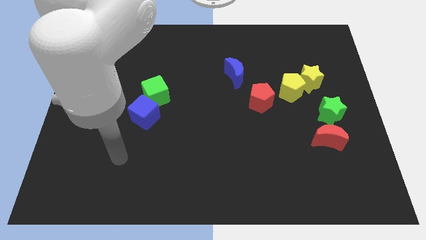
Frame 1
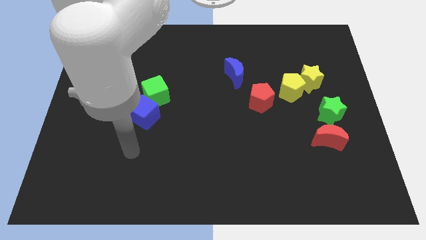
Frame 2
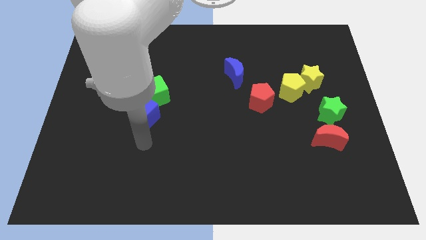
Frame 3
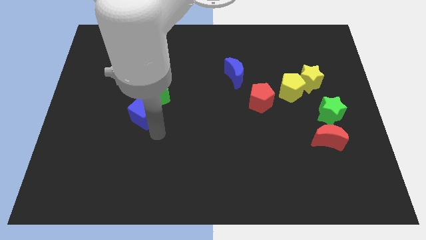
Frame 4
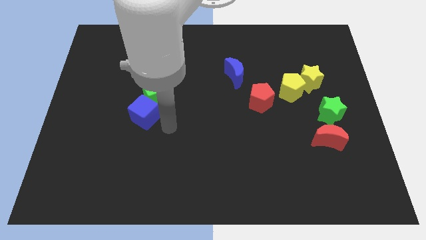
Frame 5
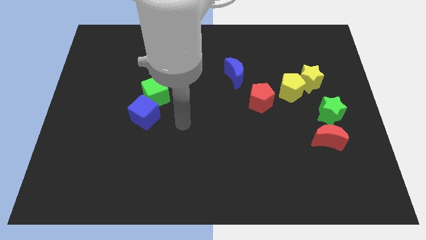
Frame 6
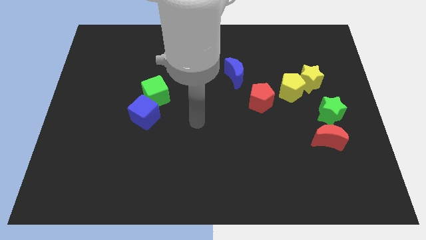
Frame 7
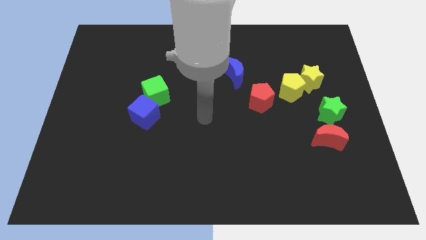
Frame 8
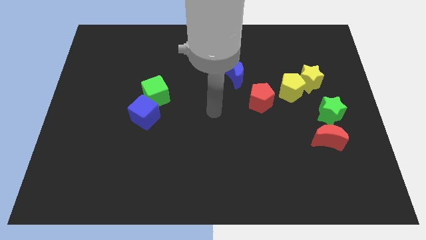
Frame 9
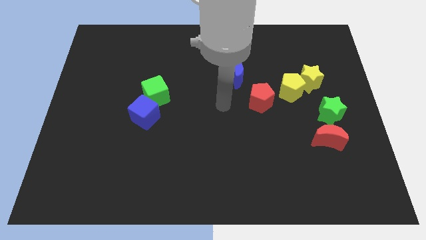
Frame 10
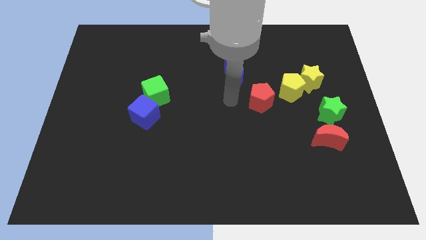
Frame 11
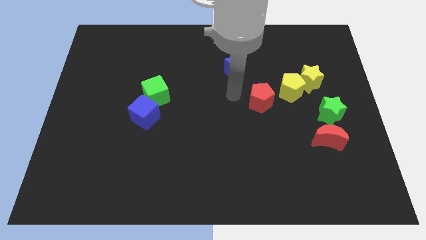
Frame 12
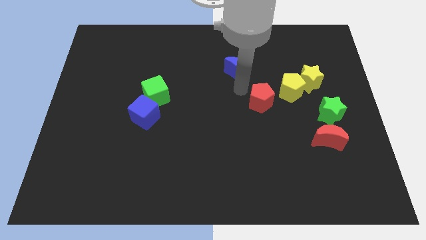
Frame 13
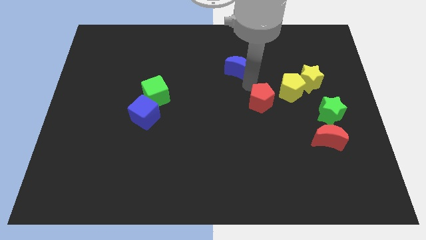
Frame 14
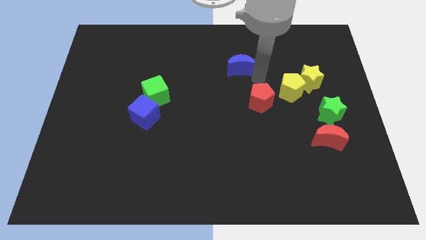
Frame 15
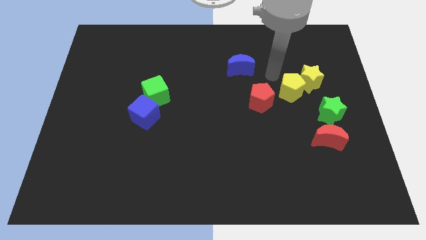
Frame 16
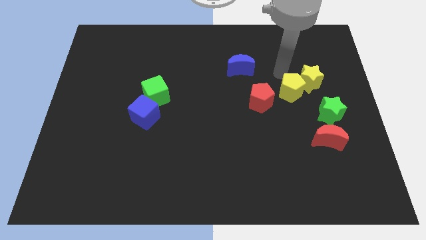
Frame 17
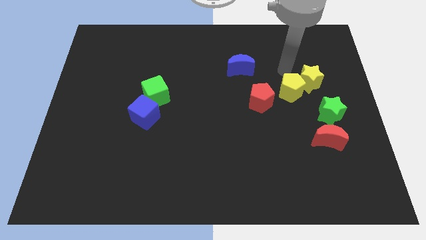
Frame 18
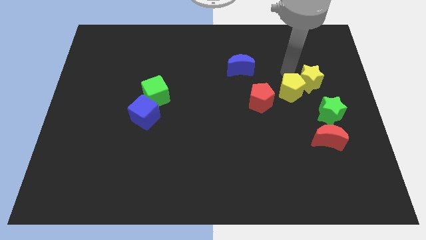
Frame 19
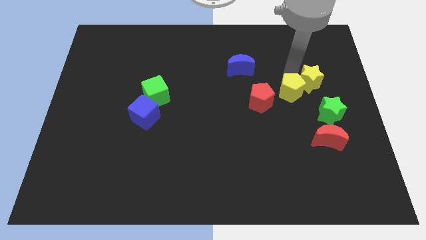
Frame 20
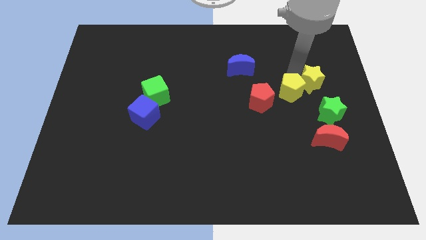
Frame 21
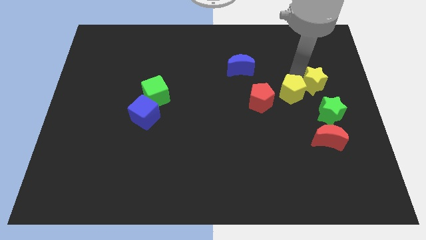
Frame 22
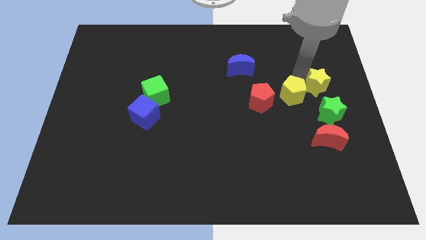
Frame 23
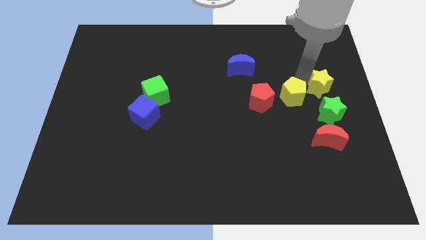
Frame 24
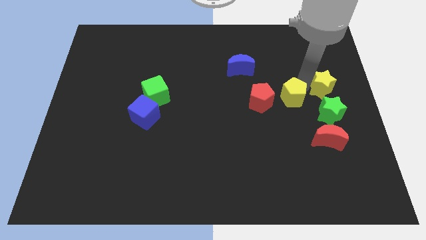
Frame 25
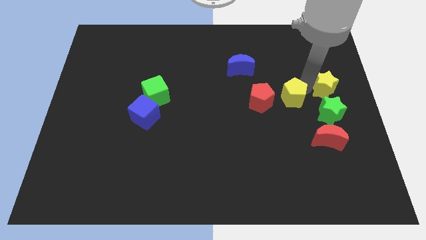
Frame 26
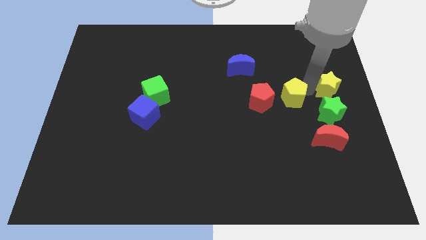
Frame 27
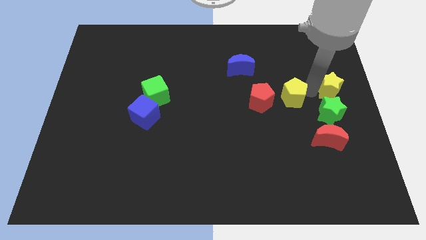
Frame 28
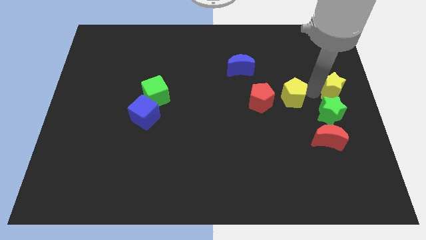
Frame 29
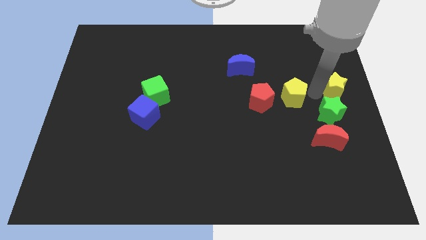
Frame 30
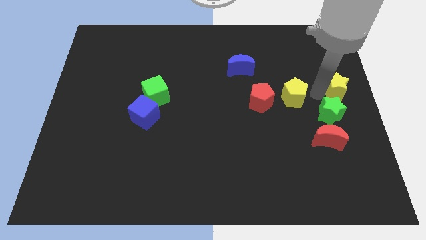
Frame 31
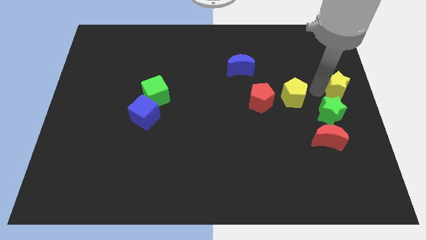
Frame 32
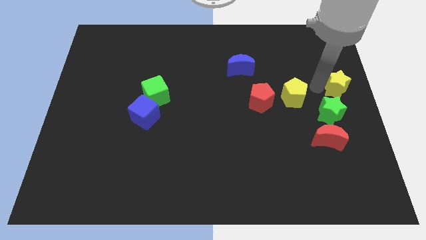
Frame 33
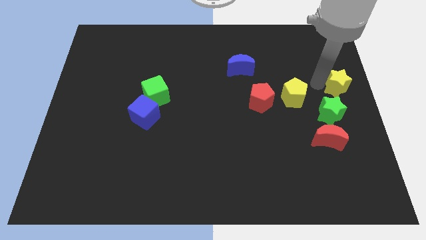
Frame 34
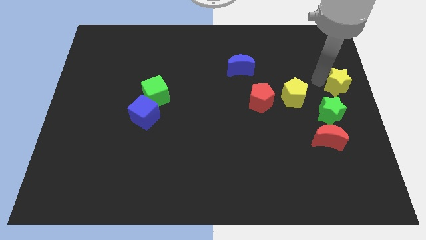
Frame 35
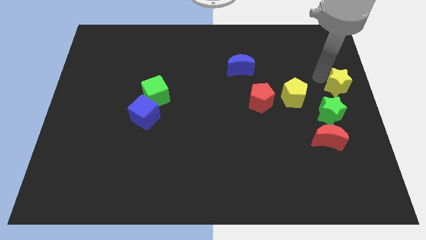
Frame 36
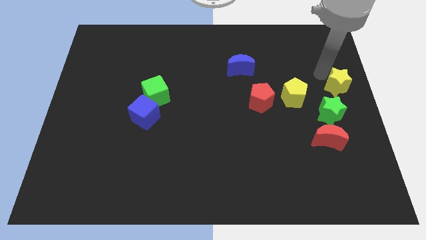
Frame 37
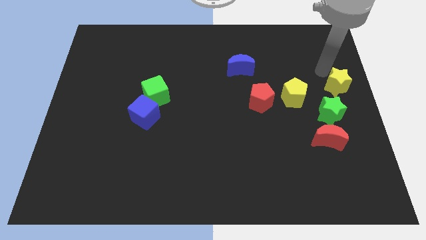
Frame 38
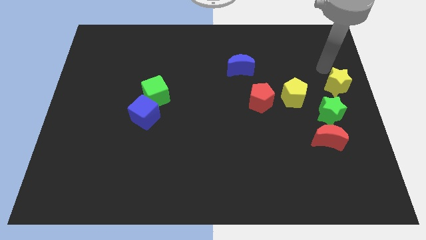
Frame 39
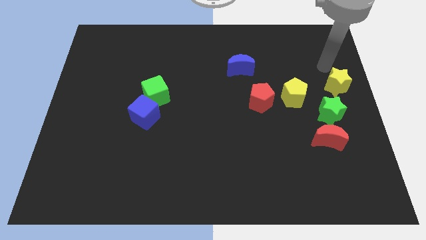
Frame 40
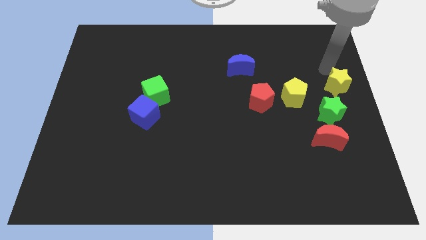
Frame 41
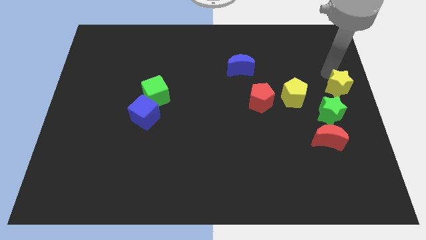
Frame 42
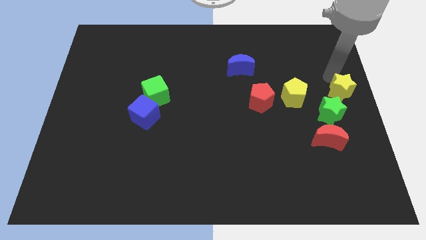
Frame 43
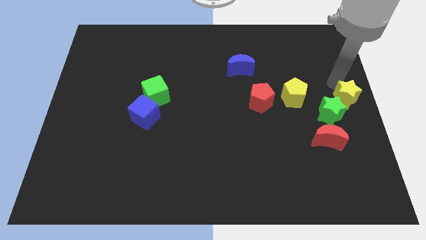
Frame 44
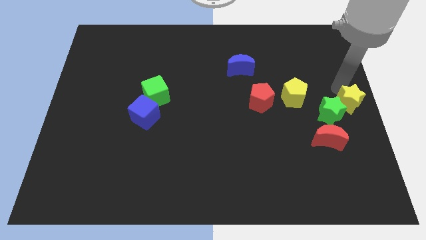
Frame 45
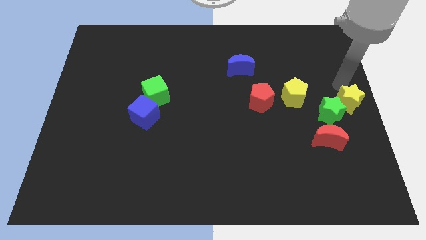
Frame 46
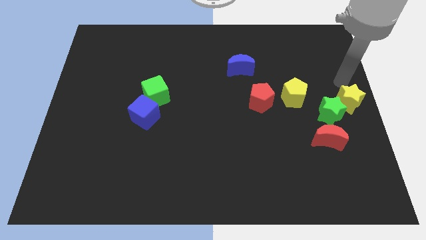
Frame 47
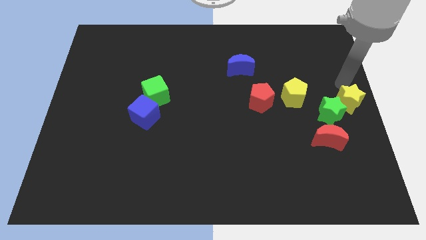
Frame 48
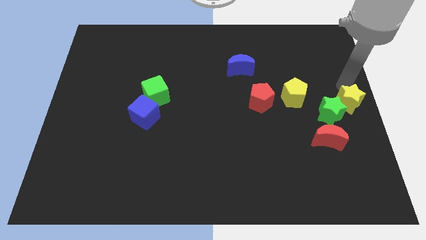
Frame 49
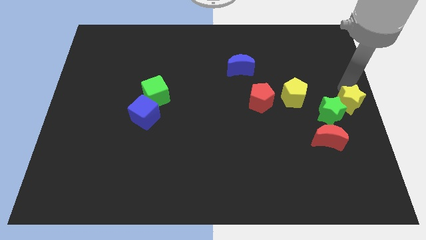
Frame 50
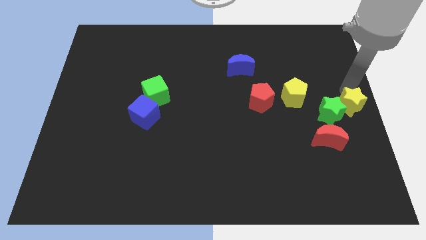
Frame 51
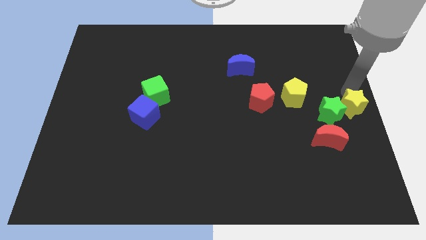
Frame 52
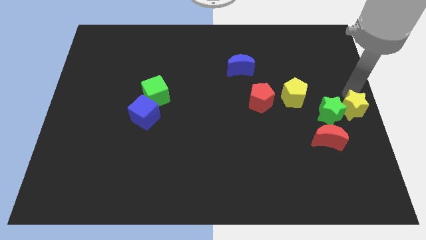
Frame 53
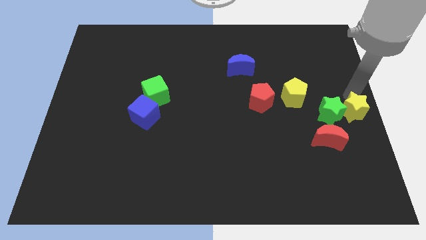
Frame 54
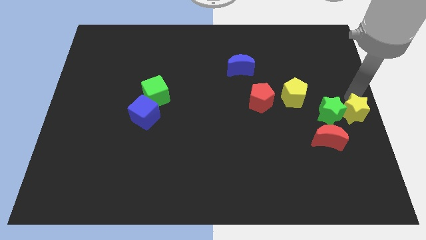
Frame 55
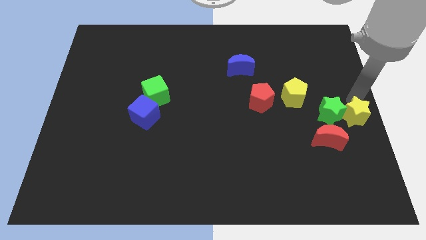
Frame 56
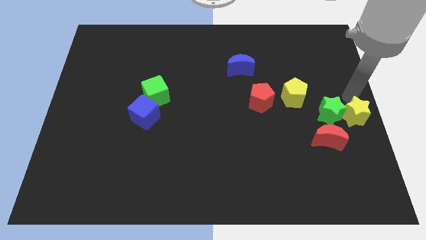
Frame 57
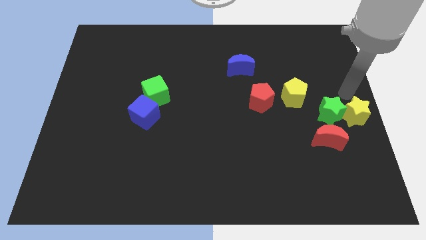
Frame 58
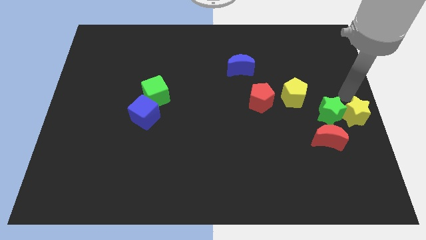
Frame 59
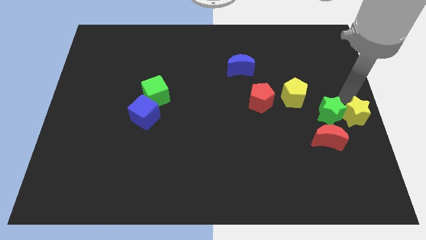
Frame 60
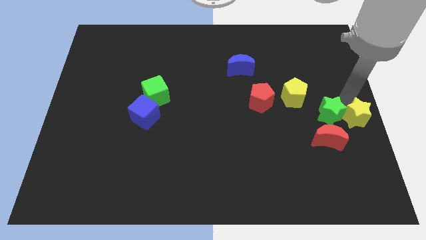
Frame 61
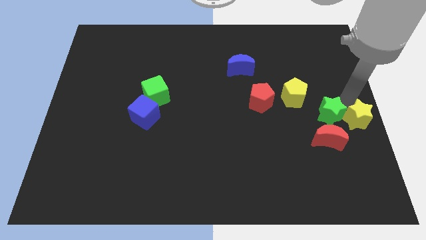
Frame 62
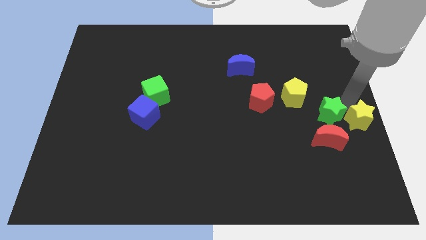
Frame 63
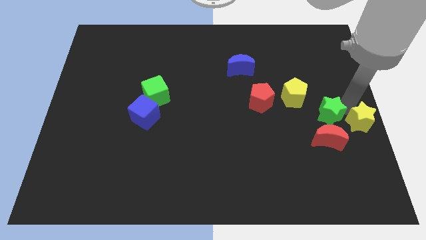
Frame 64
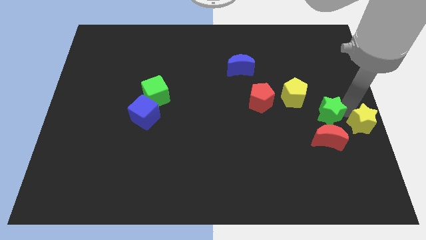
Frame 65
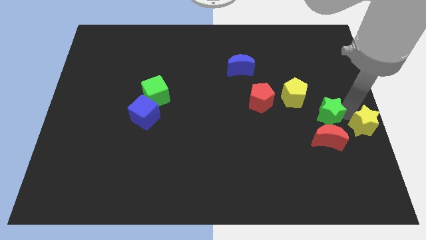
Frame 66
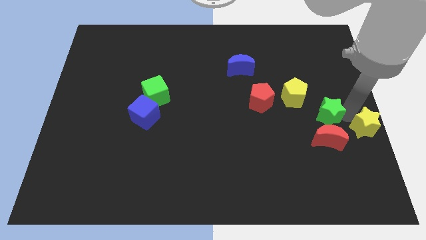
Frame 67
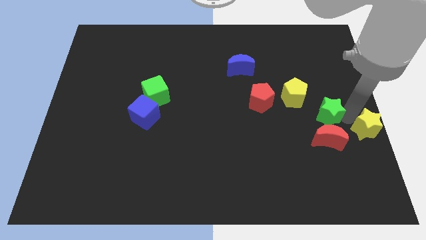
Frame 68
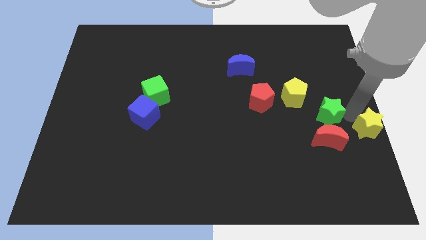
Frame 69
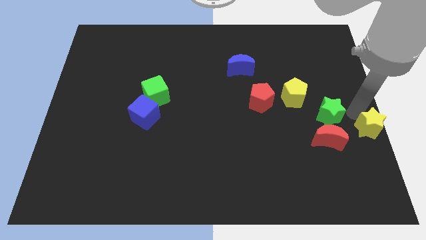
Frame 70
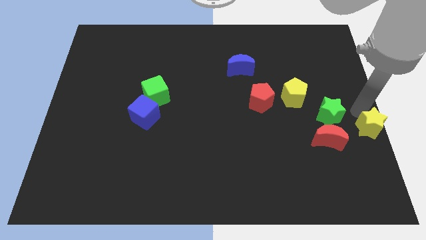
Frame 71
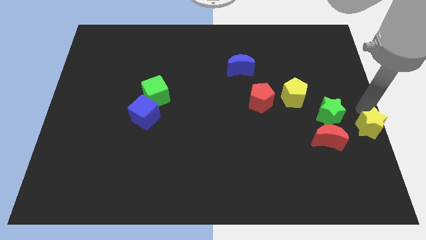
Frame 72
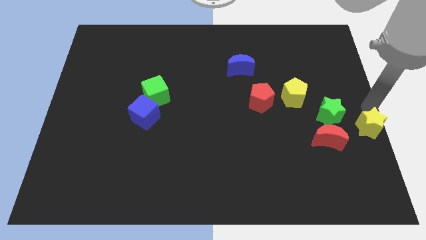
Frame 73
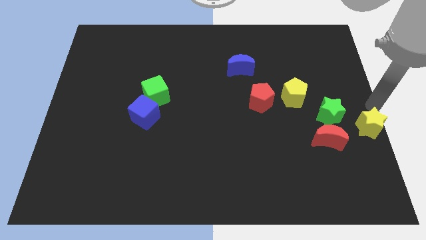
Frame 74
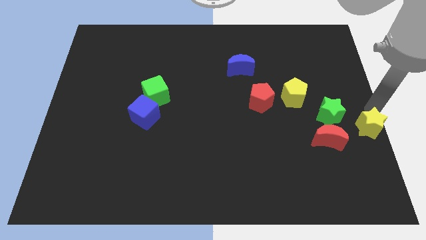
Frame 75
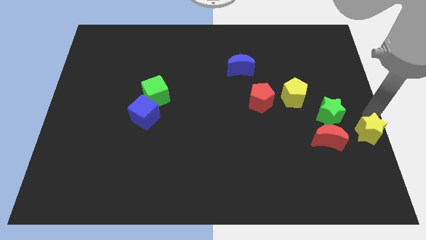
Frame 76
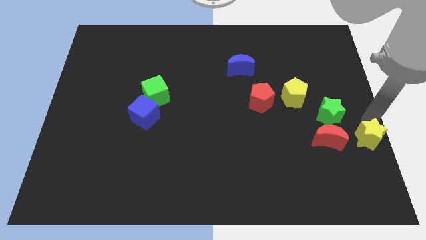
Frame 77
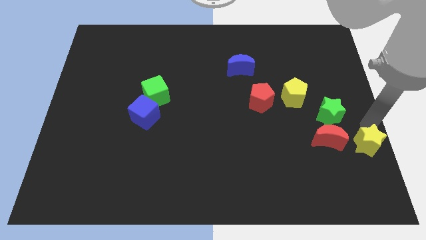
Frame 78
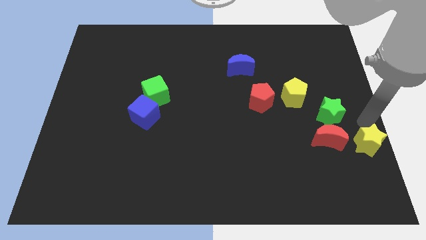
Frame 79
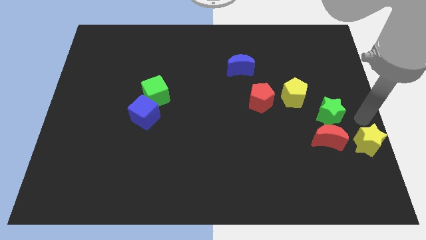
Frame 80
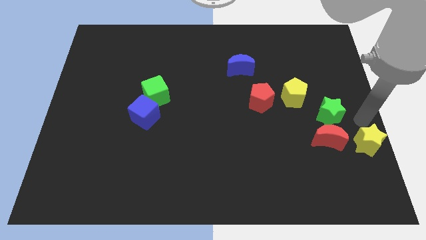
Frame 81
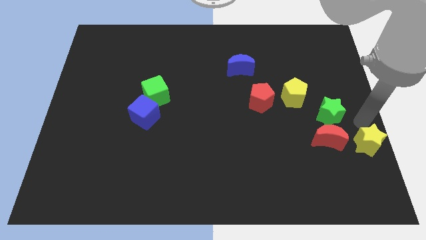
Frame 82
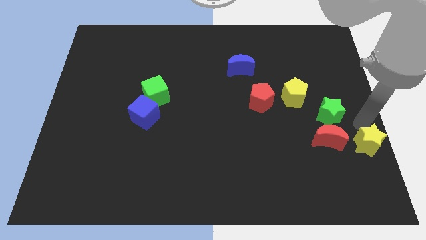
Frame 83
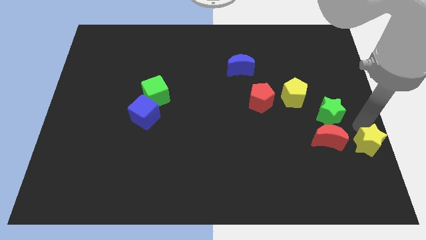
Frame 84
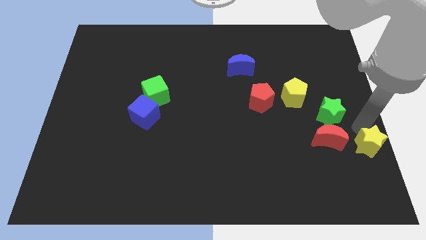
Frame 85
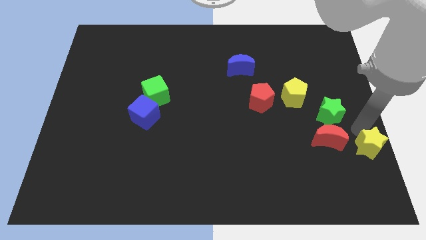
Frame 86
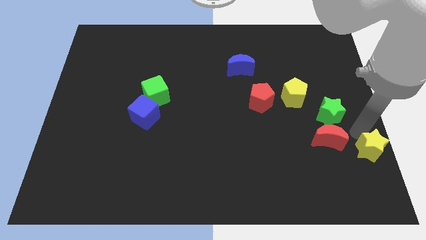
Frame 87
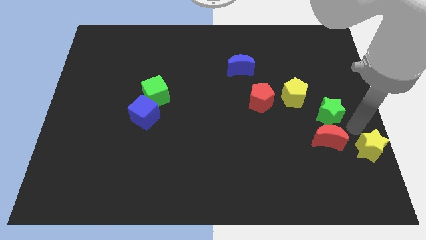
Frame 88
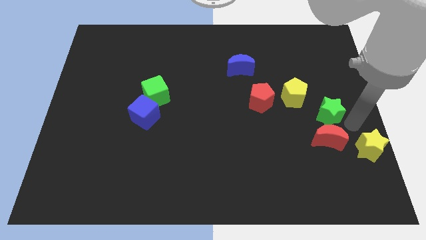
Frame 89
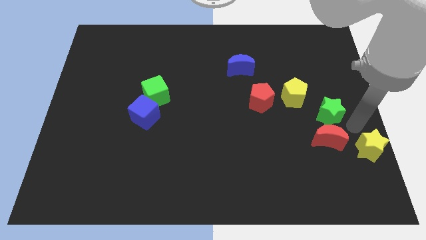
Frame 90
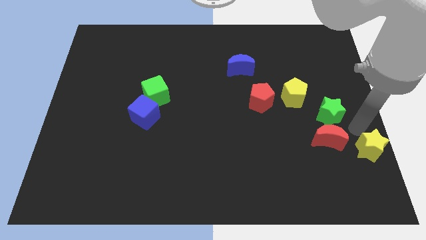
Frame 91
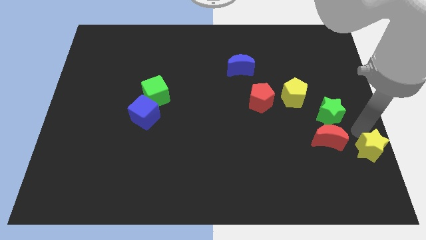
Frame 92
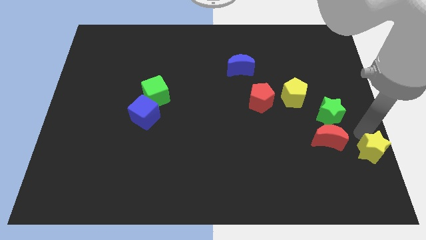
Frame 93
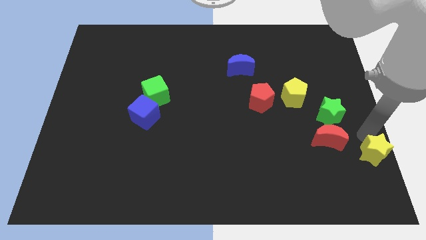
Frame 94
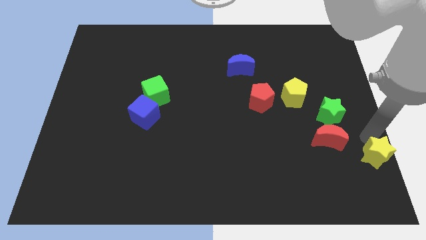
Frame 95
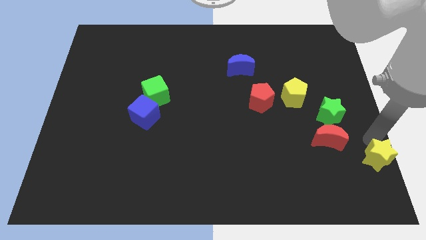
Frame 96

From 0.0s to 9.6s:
slide the yellow star to the bottom right
